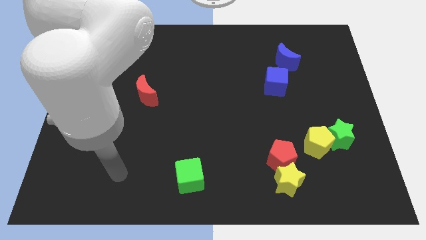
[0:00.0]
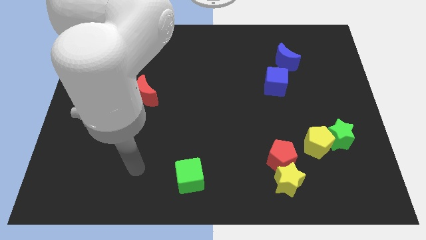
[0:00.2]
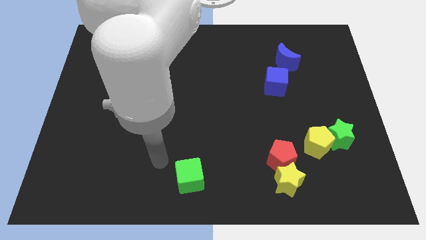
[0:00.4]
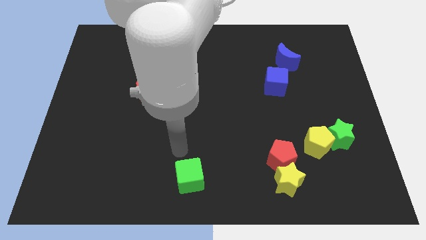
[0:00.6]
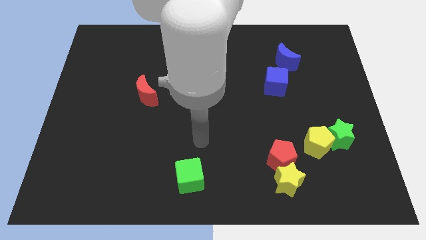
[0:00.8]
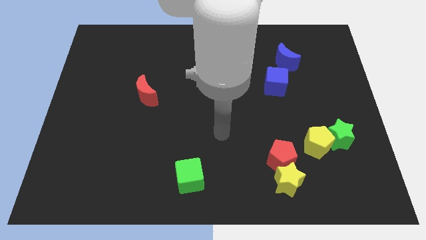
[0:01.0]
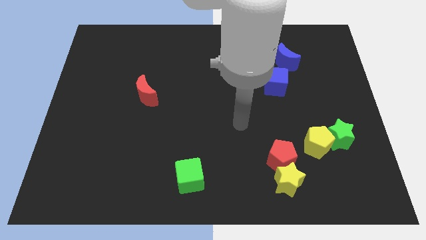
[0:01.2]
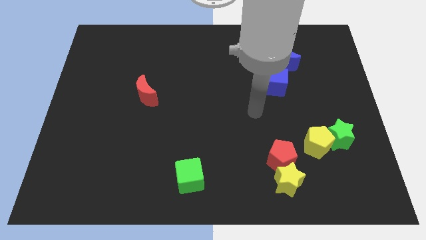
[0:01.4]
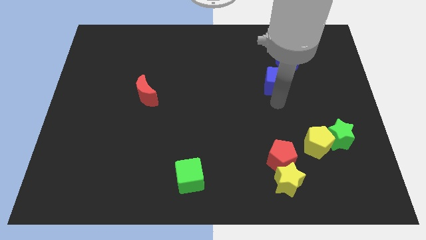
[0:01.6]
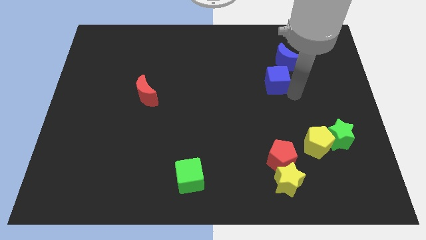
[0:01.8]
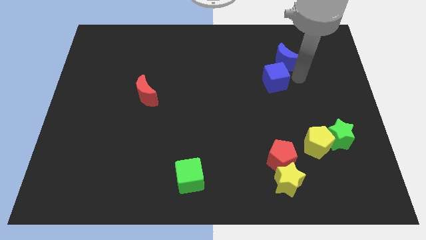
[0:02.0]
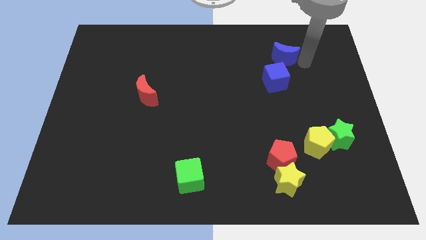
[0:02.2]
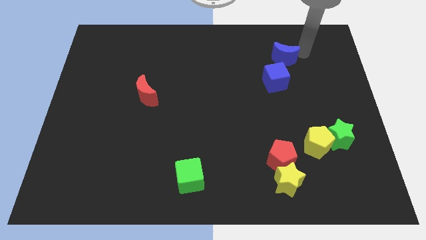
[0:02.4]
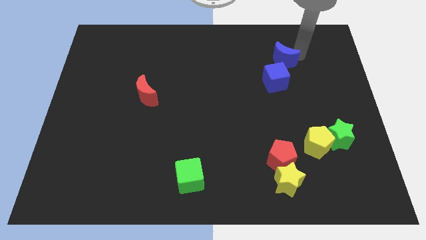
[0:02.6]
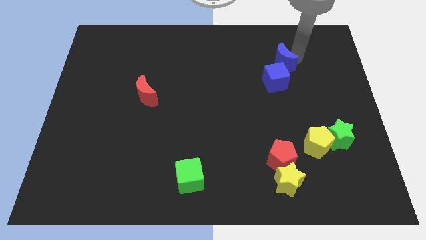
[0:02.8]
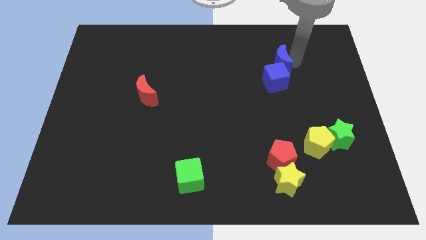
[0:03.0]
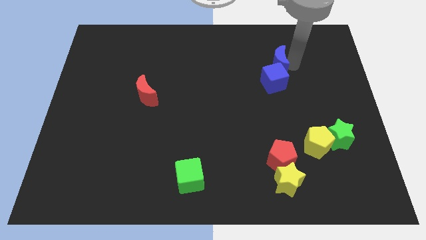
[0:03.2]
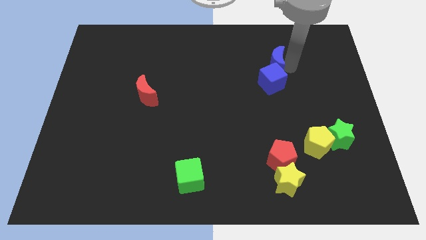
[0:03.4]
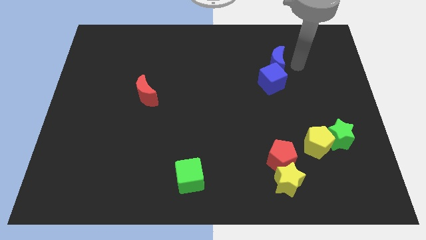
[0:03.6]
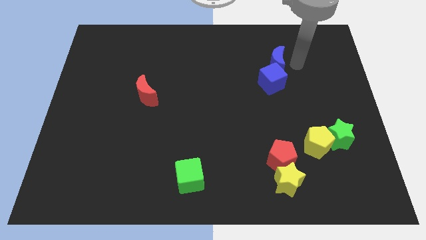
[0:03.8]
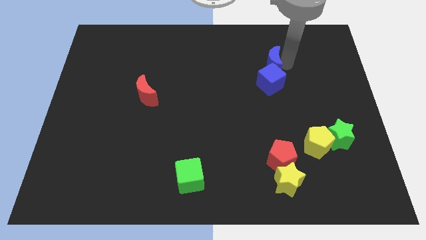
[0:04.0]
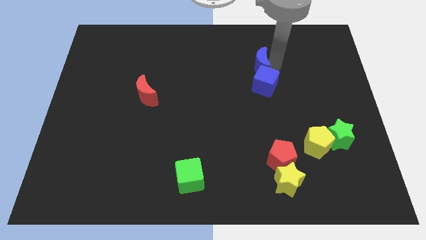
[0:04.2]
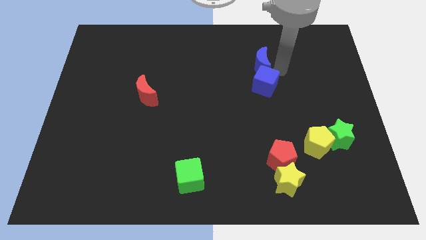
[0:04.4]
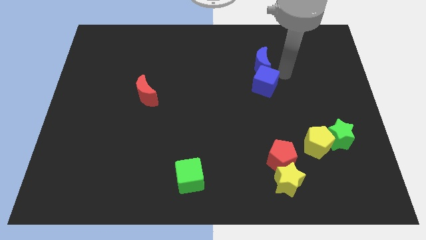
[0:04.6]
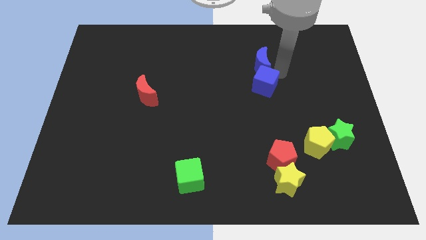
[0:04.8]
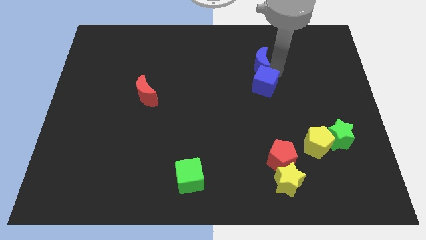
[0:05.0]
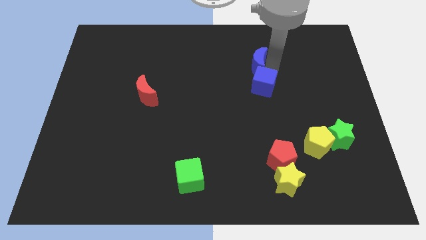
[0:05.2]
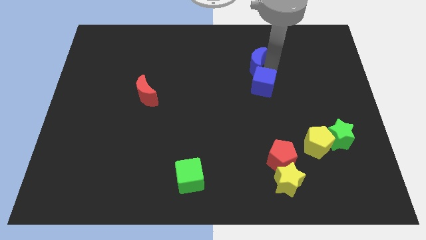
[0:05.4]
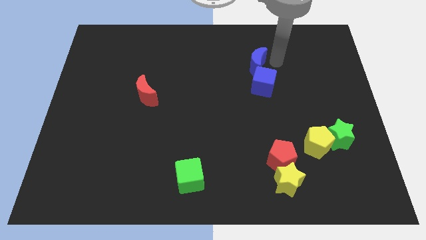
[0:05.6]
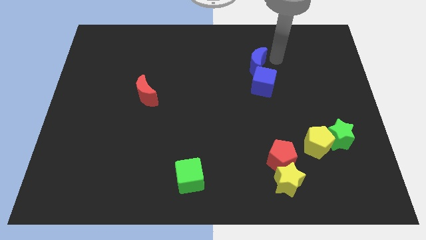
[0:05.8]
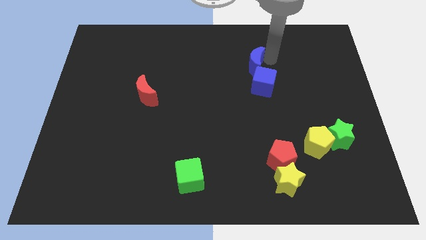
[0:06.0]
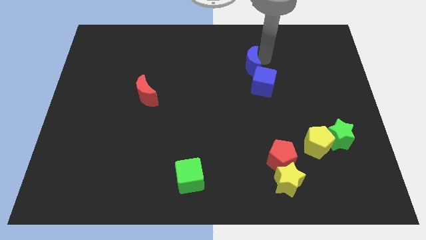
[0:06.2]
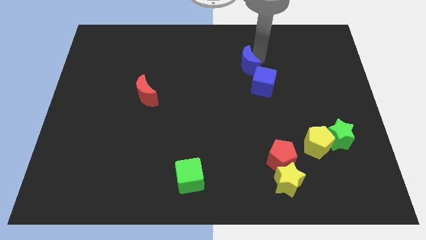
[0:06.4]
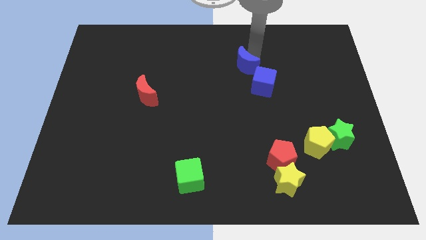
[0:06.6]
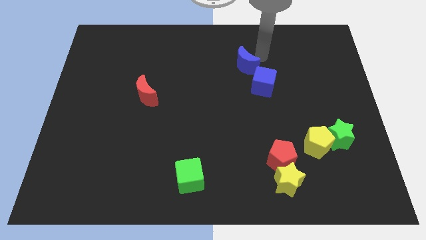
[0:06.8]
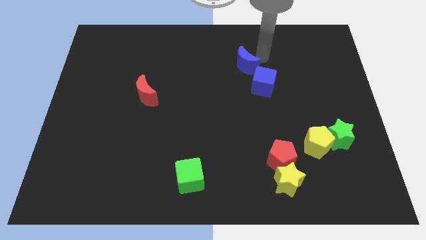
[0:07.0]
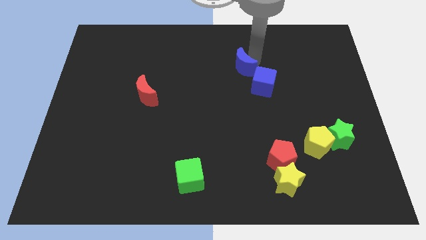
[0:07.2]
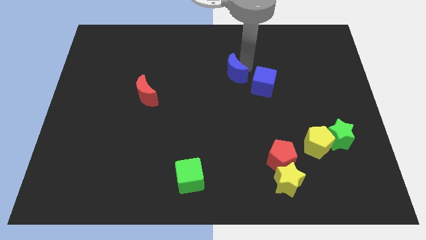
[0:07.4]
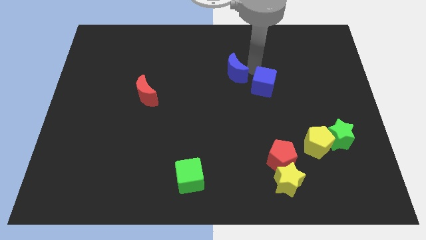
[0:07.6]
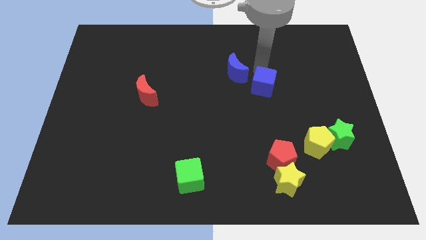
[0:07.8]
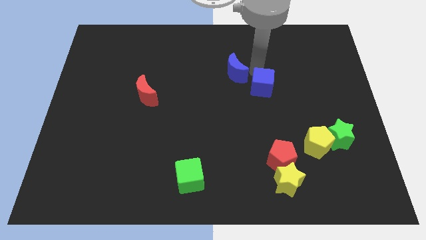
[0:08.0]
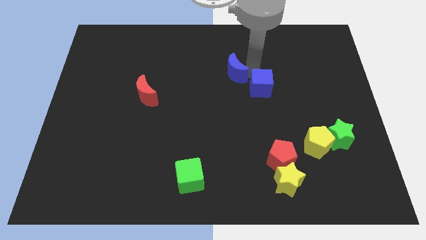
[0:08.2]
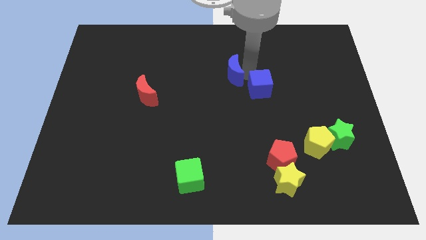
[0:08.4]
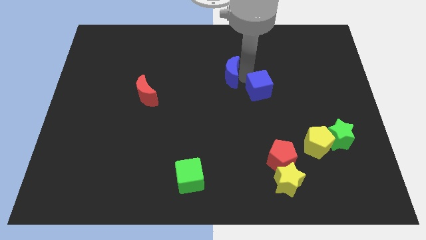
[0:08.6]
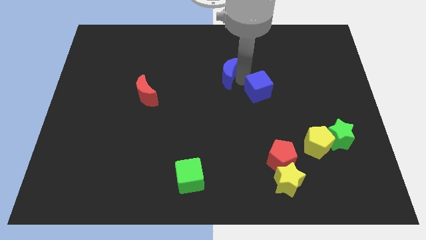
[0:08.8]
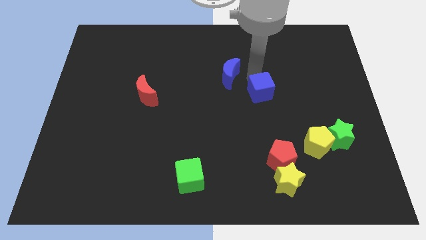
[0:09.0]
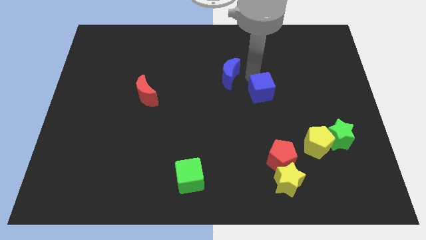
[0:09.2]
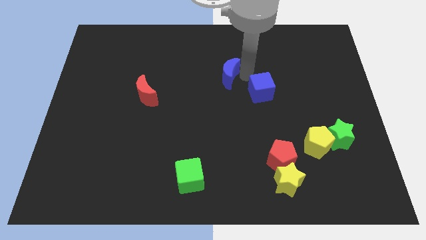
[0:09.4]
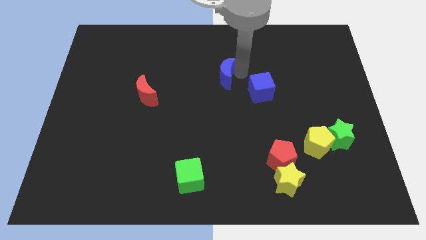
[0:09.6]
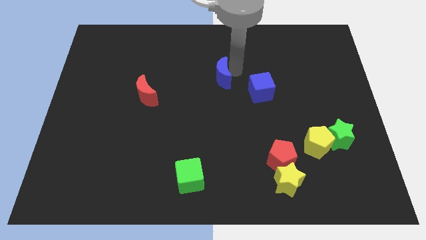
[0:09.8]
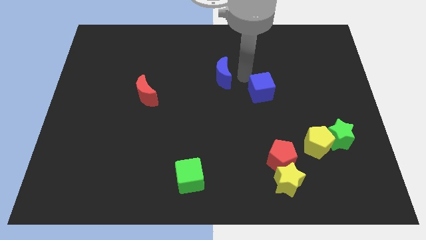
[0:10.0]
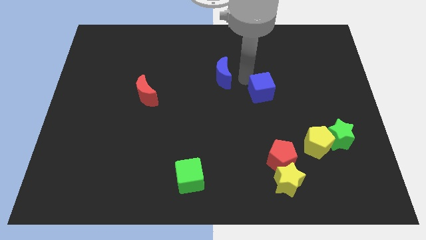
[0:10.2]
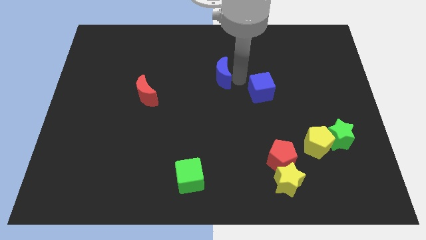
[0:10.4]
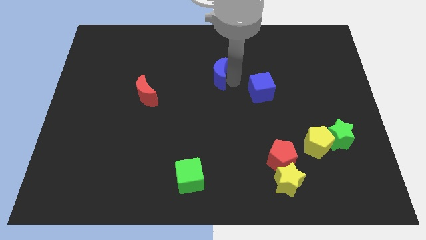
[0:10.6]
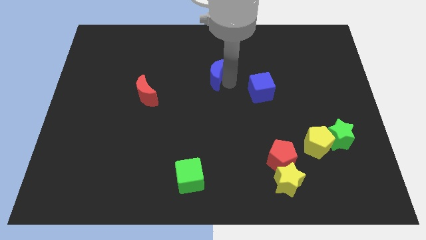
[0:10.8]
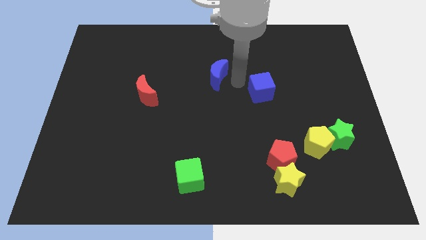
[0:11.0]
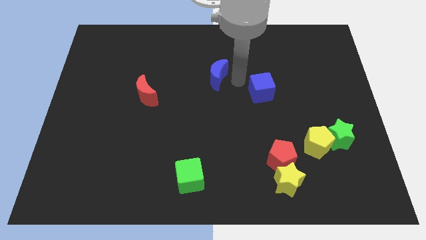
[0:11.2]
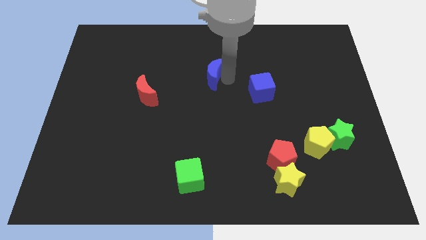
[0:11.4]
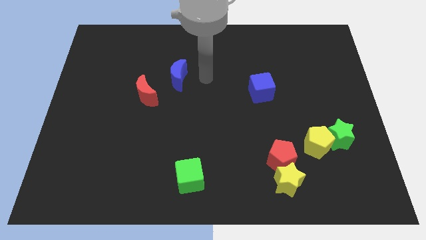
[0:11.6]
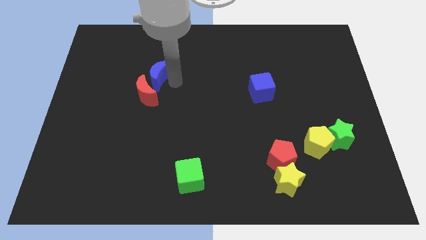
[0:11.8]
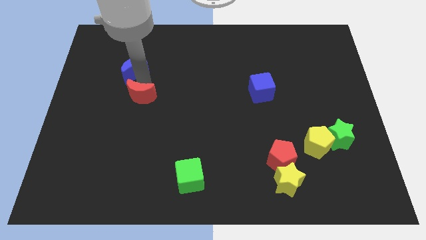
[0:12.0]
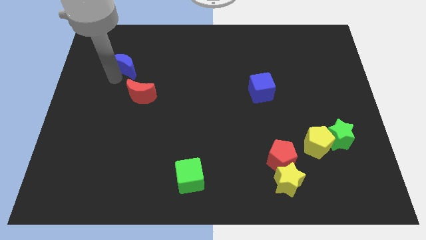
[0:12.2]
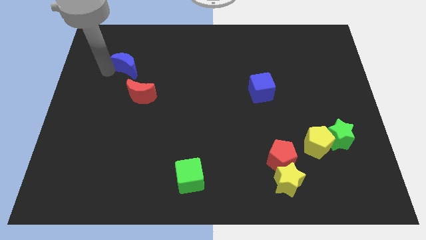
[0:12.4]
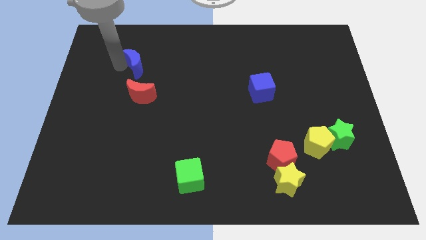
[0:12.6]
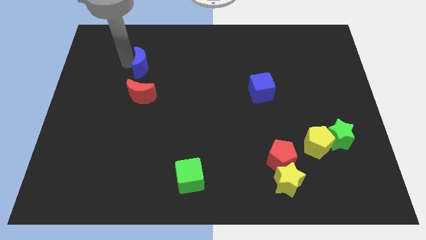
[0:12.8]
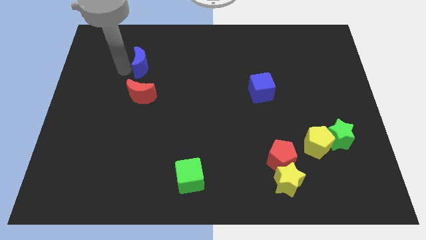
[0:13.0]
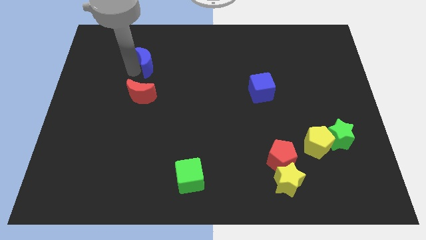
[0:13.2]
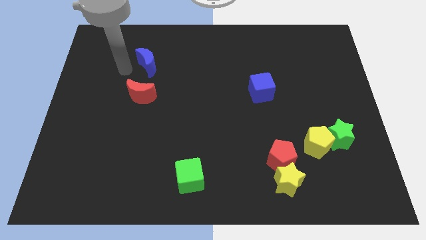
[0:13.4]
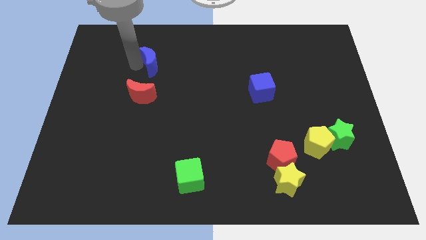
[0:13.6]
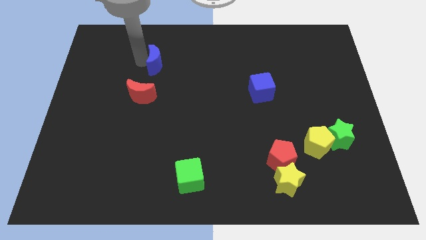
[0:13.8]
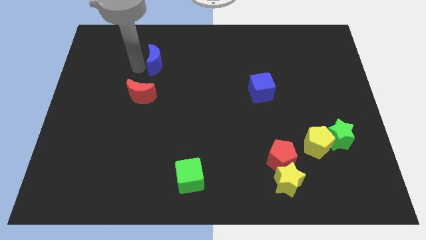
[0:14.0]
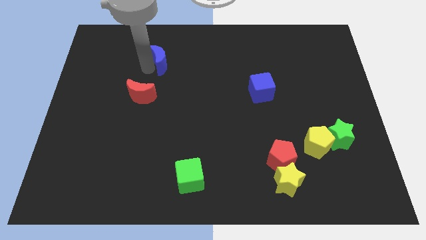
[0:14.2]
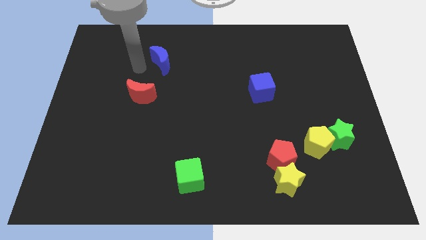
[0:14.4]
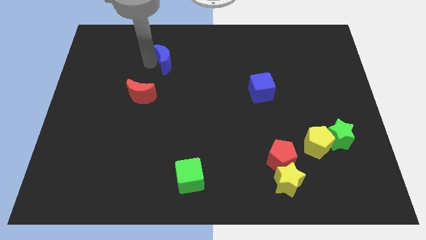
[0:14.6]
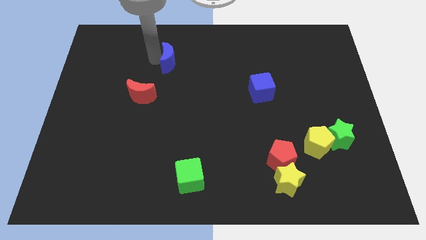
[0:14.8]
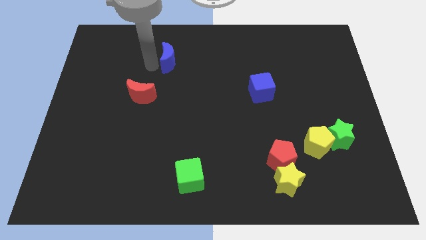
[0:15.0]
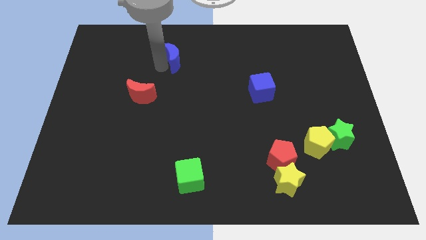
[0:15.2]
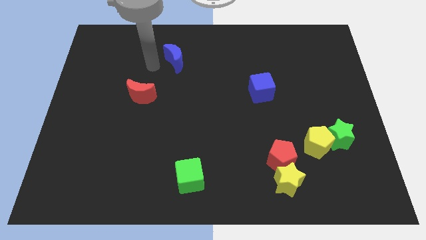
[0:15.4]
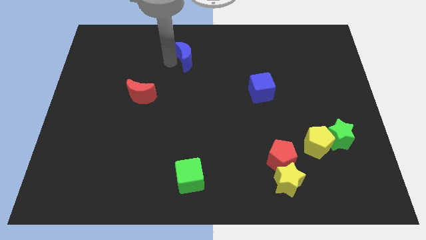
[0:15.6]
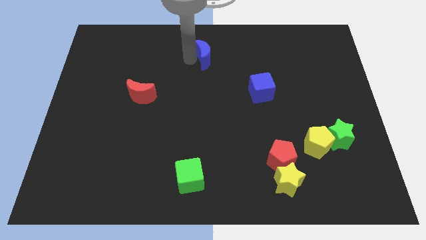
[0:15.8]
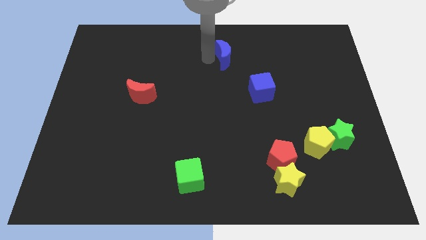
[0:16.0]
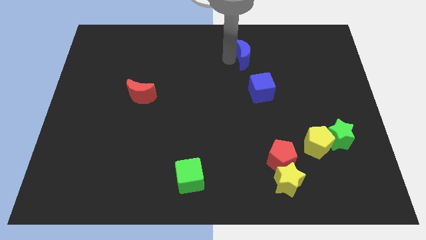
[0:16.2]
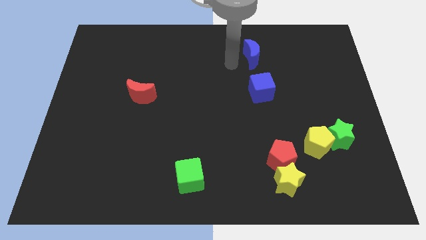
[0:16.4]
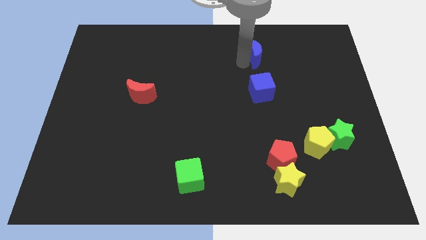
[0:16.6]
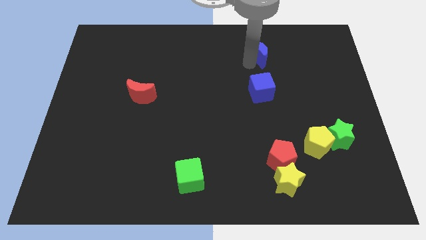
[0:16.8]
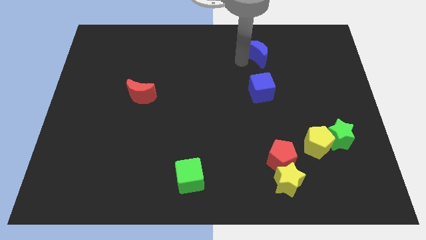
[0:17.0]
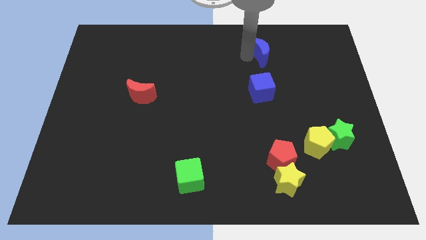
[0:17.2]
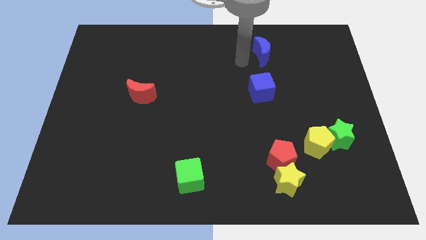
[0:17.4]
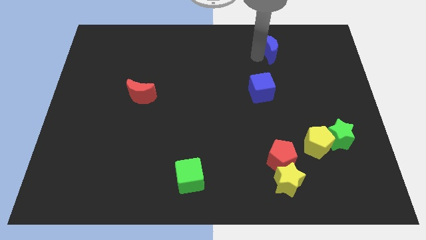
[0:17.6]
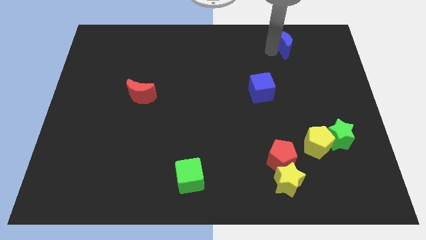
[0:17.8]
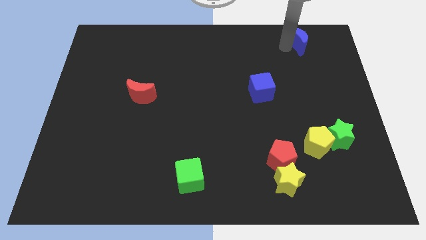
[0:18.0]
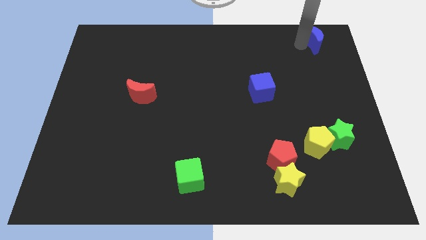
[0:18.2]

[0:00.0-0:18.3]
move the blue moon to the top right corner
